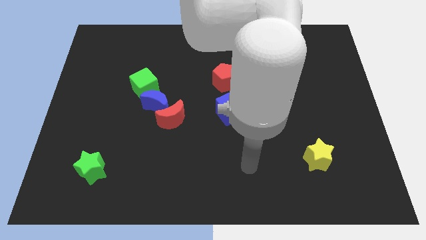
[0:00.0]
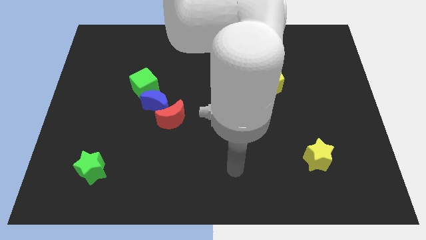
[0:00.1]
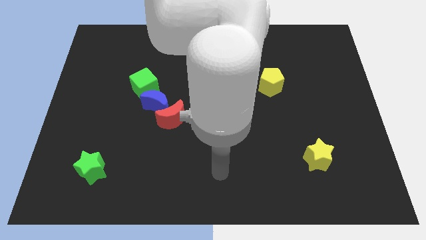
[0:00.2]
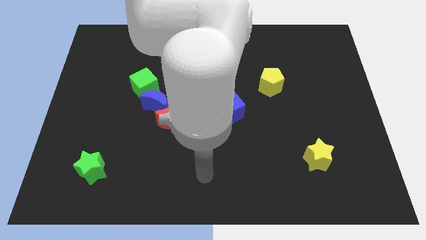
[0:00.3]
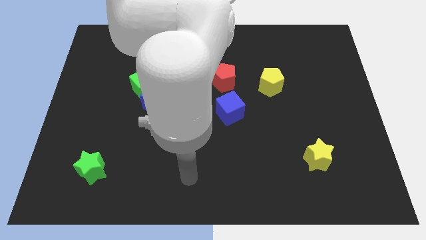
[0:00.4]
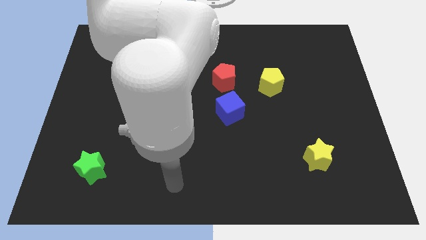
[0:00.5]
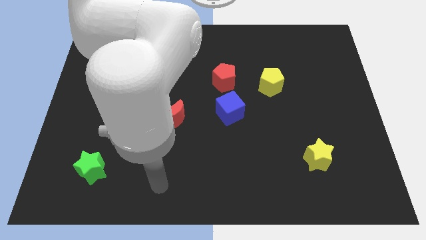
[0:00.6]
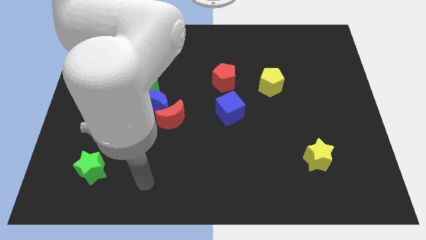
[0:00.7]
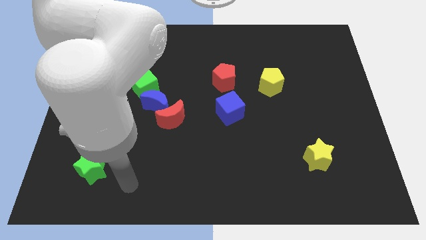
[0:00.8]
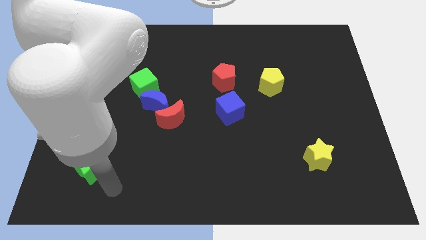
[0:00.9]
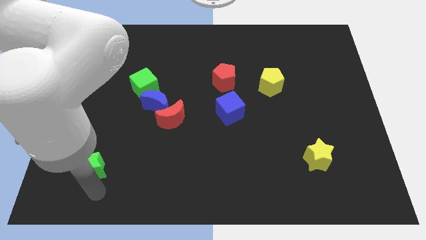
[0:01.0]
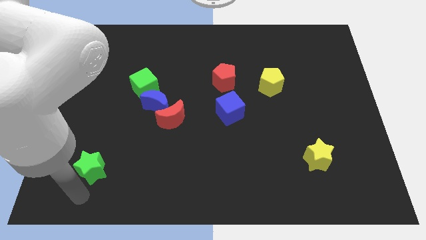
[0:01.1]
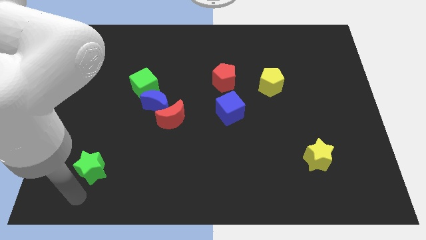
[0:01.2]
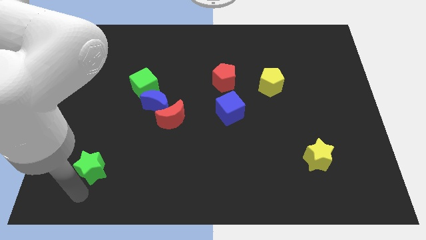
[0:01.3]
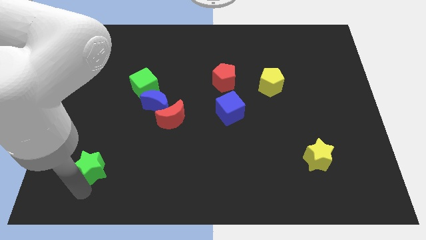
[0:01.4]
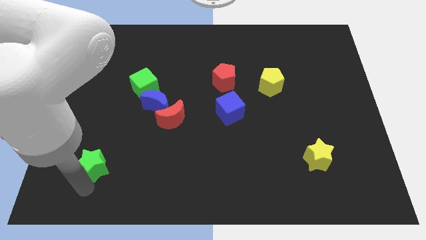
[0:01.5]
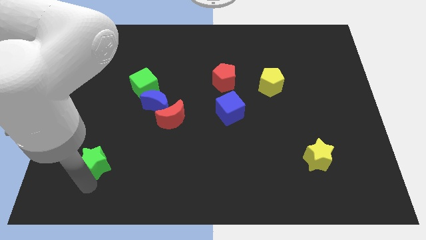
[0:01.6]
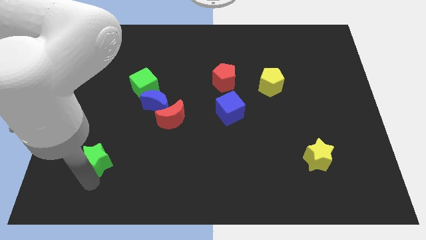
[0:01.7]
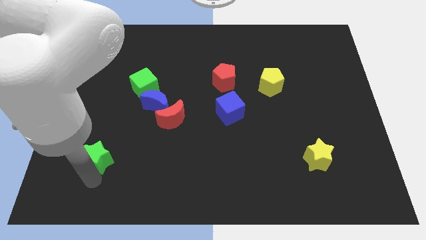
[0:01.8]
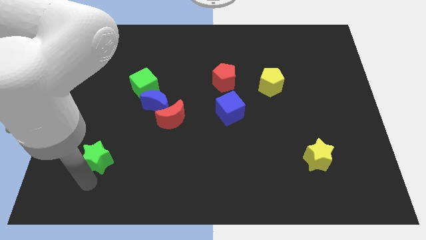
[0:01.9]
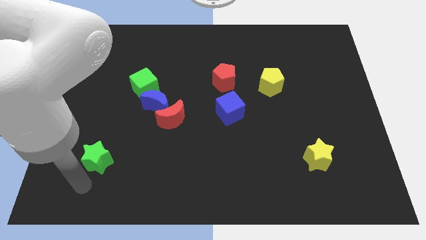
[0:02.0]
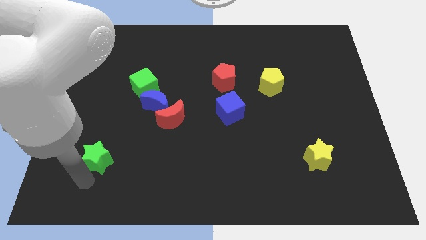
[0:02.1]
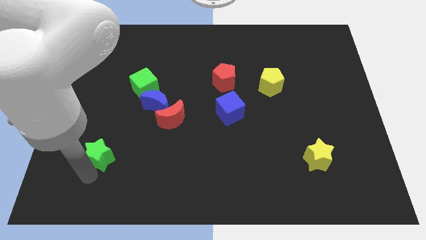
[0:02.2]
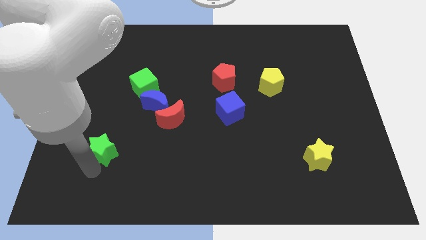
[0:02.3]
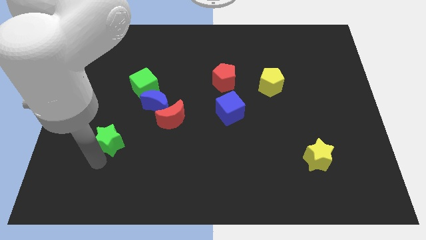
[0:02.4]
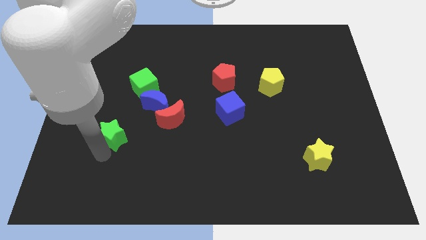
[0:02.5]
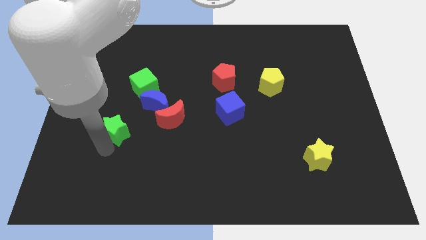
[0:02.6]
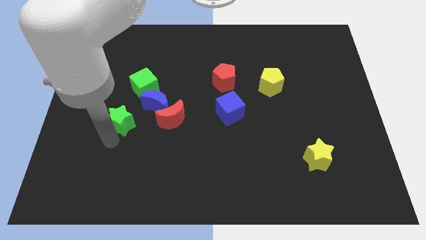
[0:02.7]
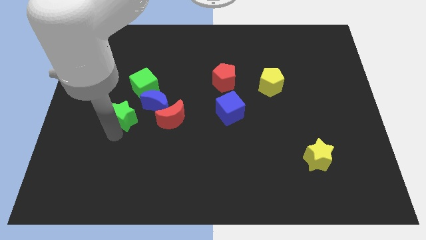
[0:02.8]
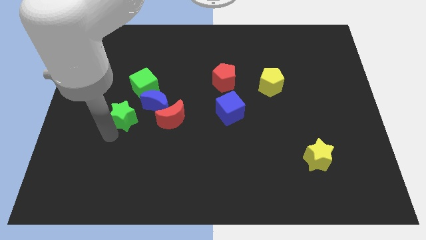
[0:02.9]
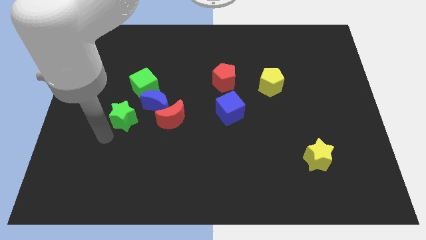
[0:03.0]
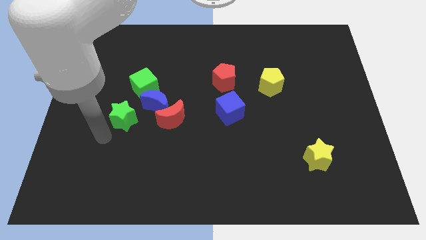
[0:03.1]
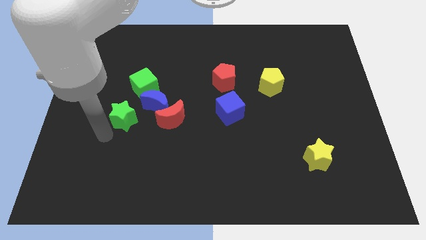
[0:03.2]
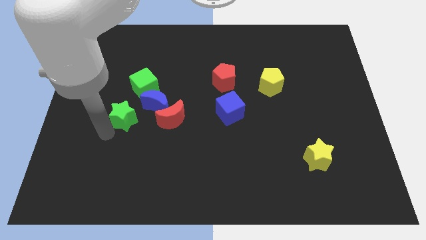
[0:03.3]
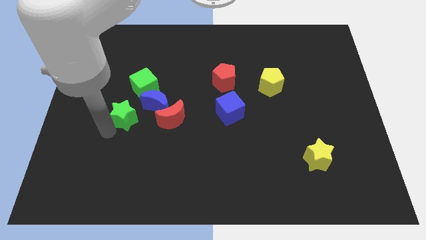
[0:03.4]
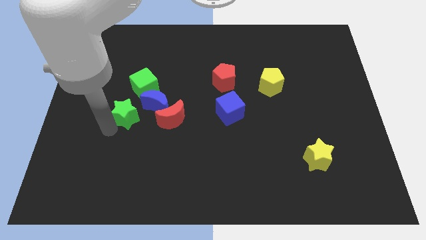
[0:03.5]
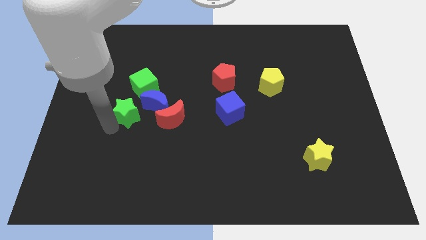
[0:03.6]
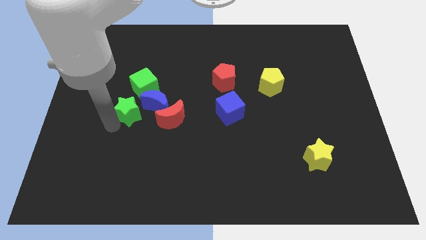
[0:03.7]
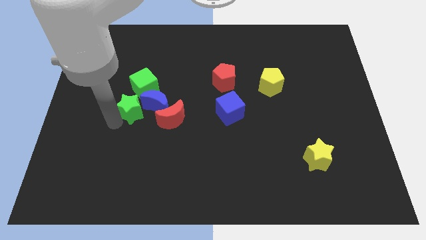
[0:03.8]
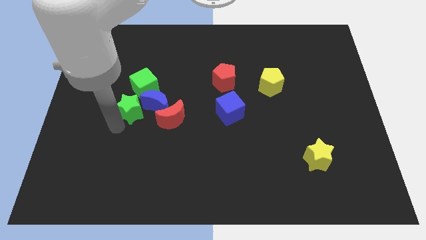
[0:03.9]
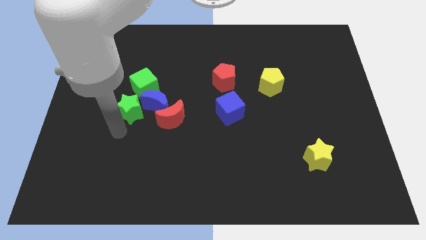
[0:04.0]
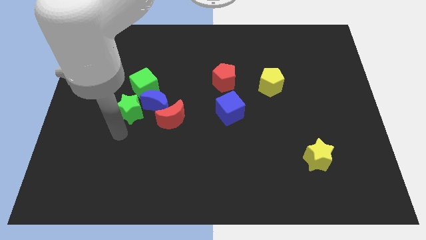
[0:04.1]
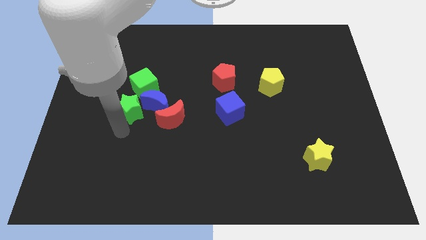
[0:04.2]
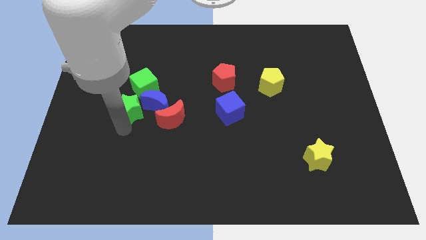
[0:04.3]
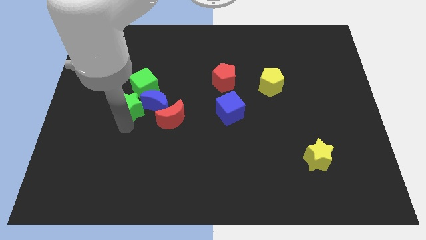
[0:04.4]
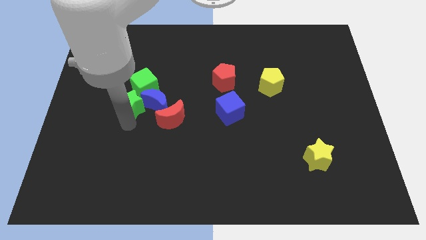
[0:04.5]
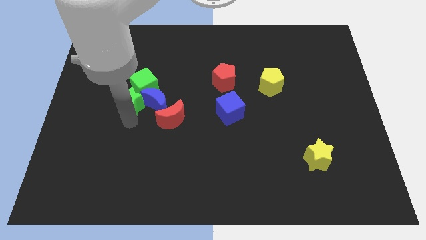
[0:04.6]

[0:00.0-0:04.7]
move the green star towards the green cube

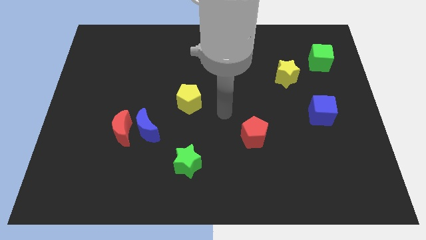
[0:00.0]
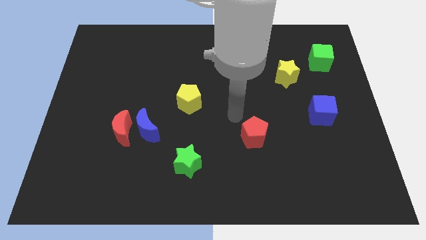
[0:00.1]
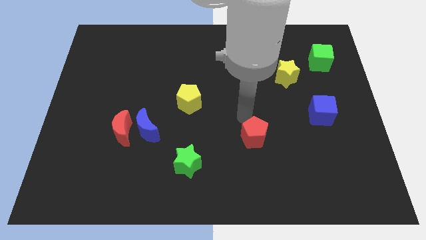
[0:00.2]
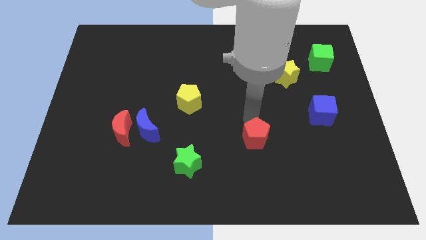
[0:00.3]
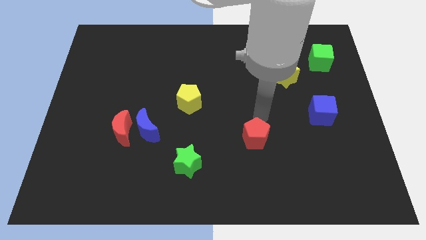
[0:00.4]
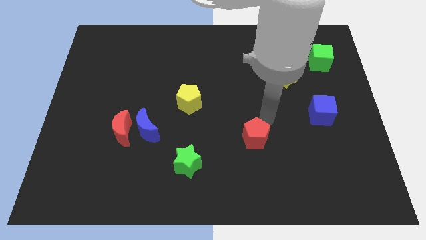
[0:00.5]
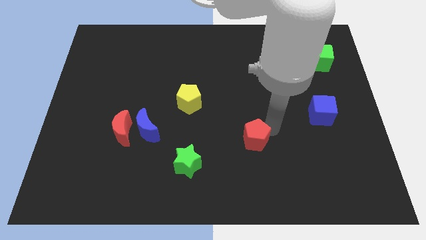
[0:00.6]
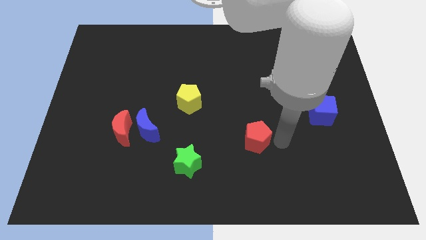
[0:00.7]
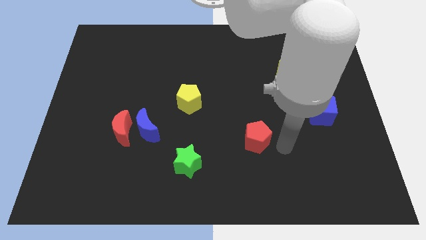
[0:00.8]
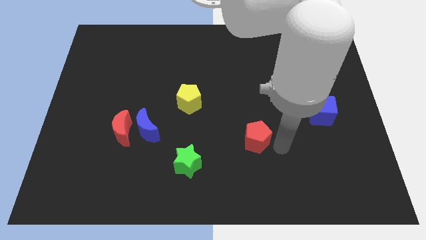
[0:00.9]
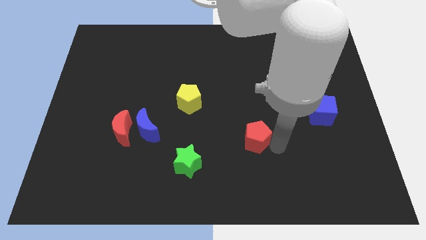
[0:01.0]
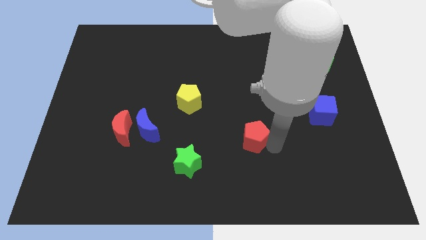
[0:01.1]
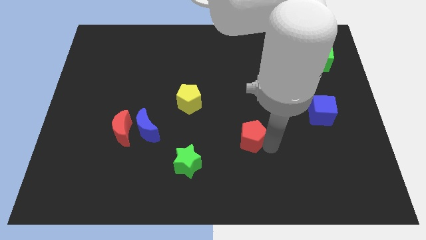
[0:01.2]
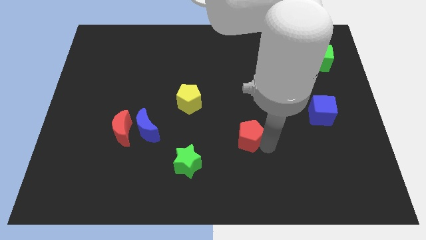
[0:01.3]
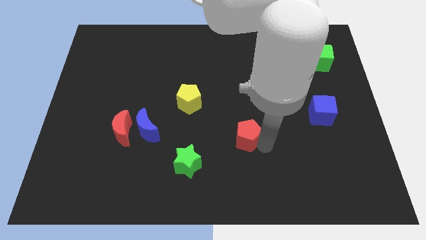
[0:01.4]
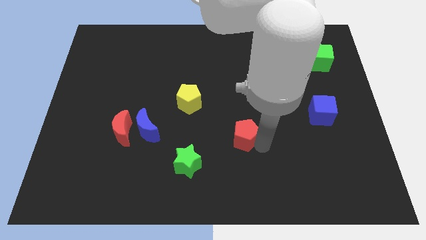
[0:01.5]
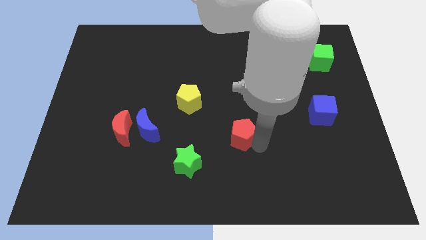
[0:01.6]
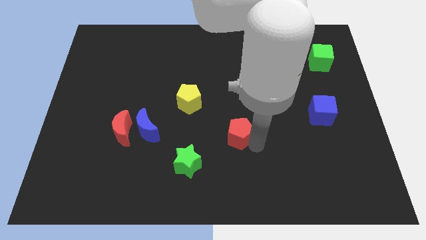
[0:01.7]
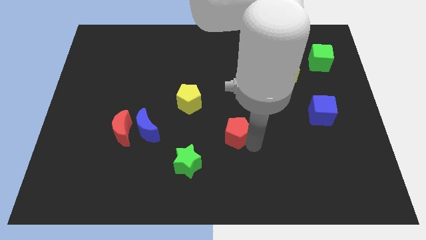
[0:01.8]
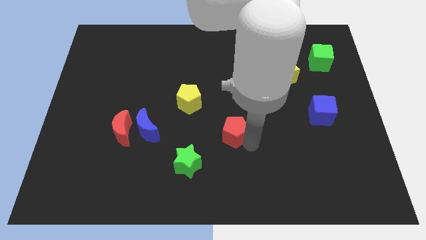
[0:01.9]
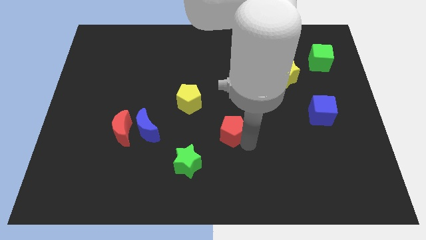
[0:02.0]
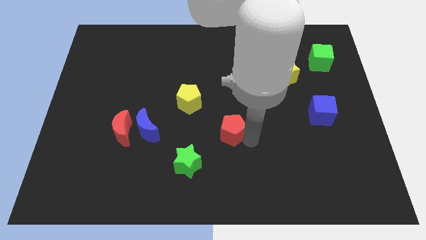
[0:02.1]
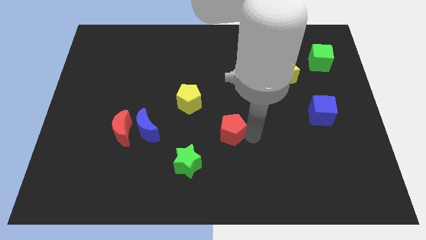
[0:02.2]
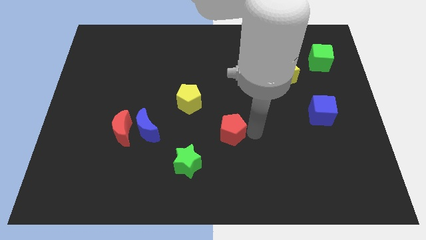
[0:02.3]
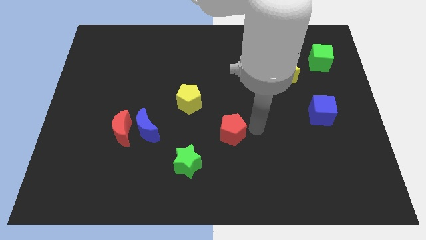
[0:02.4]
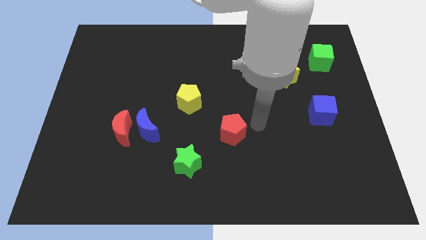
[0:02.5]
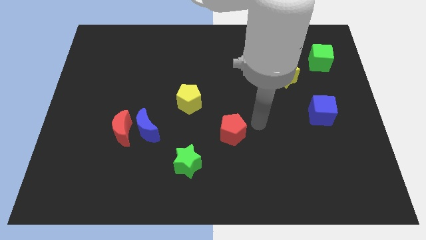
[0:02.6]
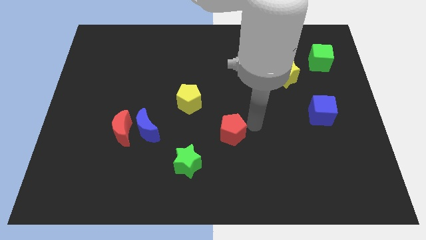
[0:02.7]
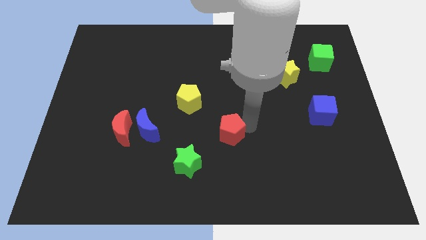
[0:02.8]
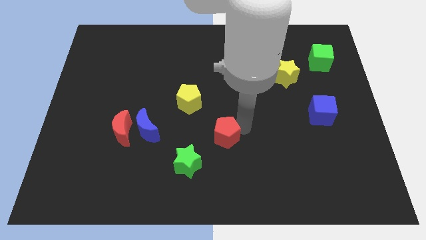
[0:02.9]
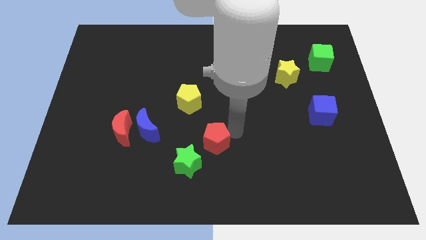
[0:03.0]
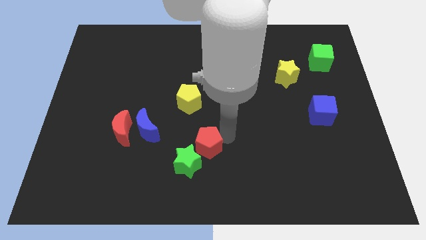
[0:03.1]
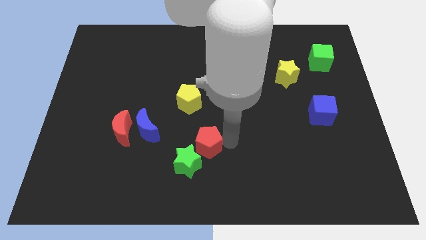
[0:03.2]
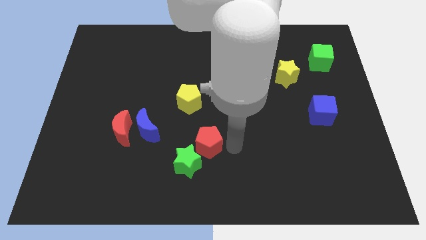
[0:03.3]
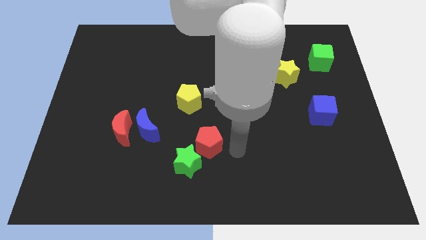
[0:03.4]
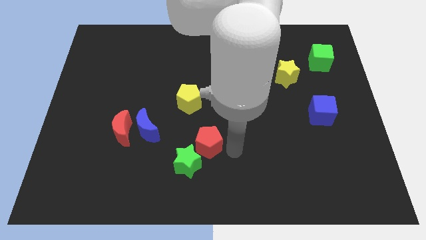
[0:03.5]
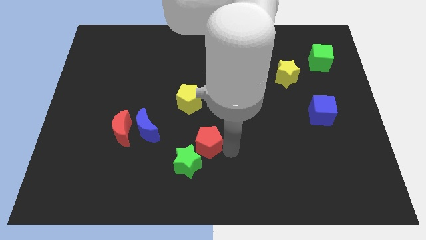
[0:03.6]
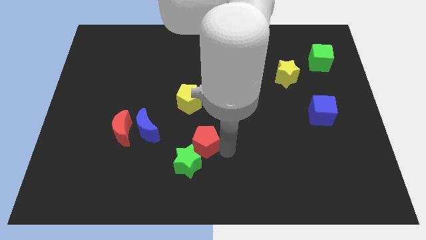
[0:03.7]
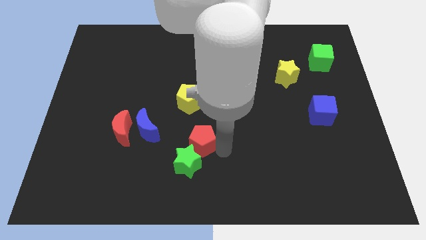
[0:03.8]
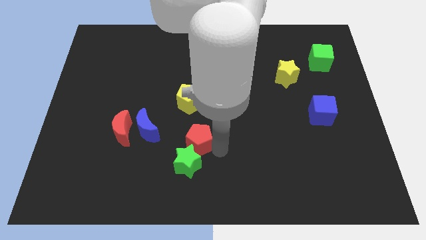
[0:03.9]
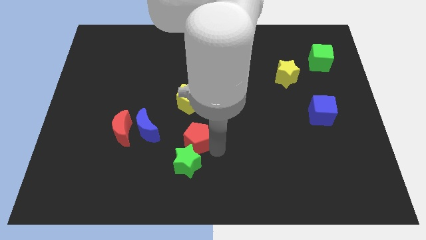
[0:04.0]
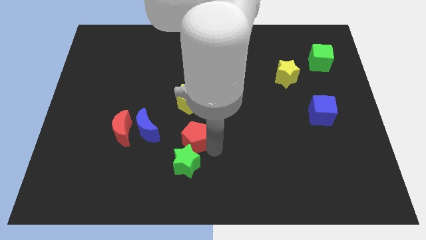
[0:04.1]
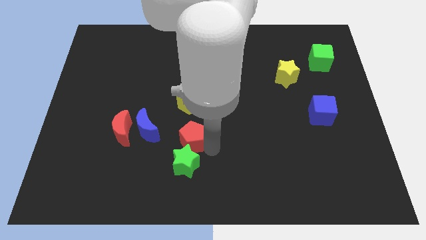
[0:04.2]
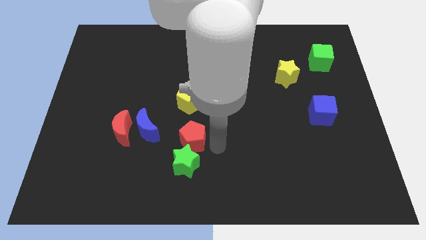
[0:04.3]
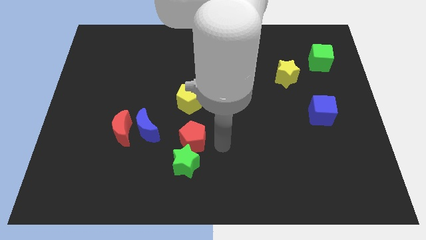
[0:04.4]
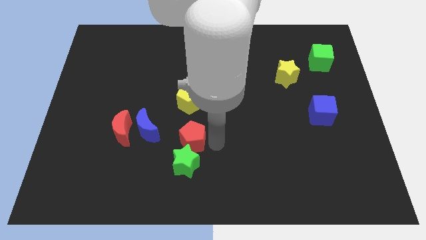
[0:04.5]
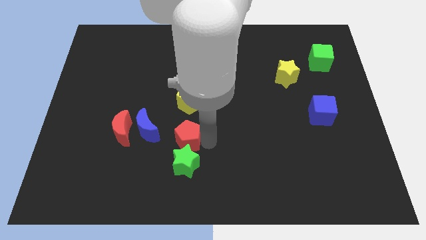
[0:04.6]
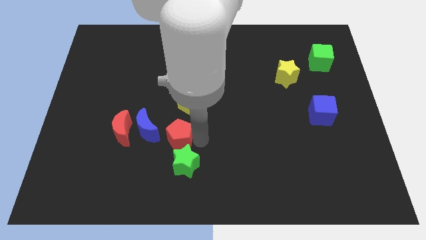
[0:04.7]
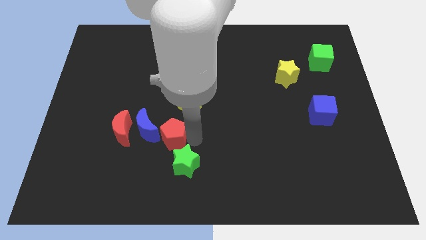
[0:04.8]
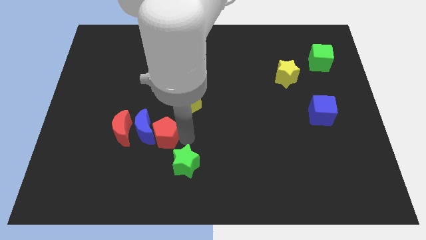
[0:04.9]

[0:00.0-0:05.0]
slide the red pentagon next to the blue moon
